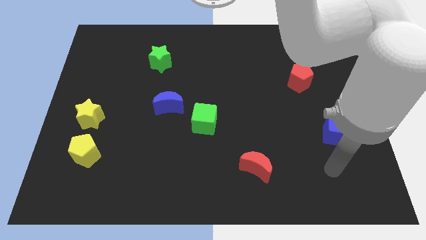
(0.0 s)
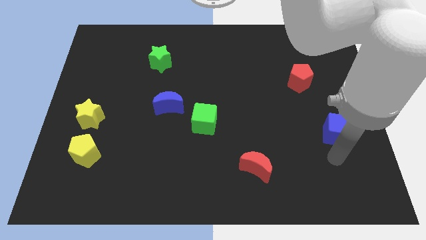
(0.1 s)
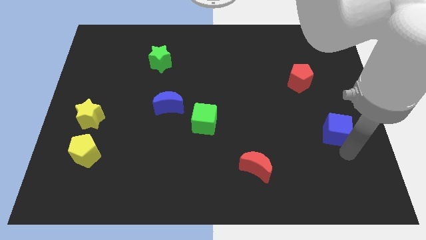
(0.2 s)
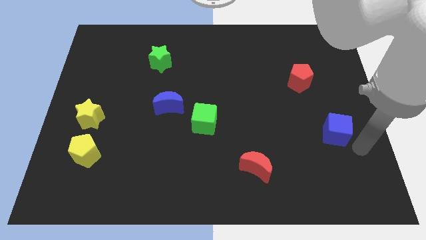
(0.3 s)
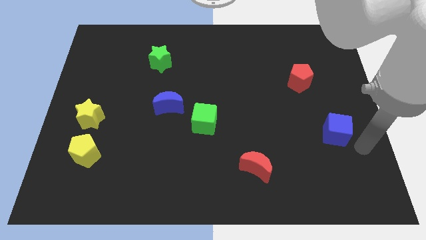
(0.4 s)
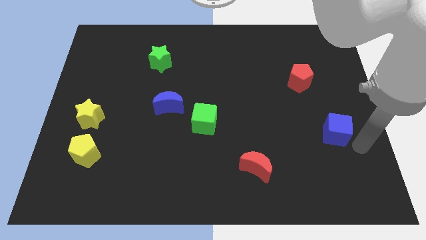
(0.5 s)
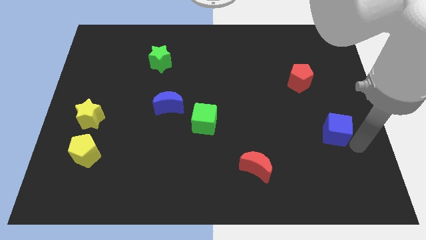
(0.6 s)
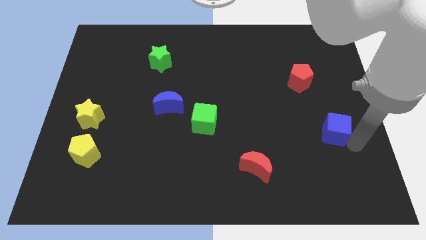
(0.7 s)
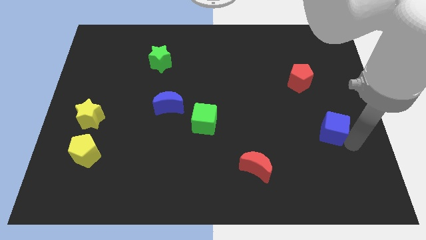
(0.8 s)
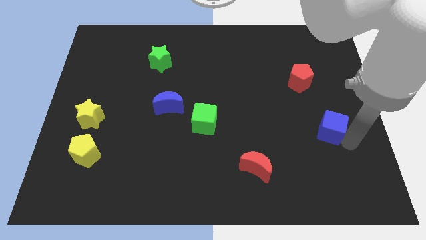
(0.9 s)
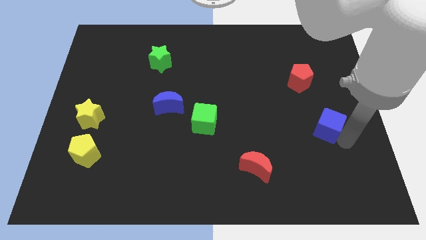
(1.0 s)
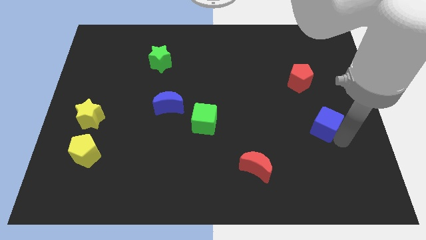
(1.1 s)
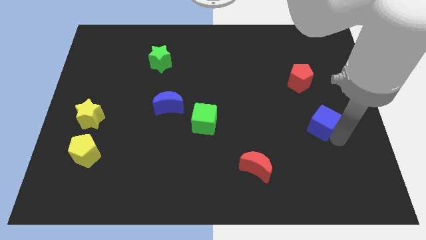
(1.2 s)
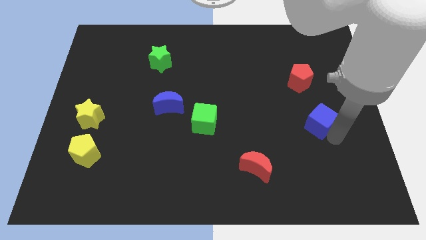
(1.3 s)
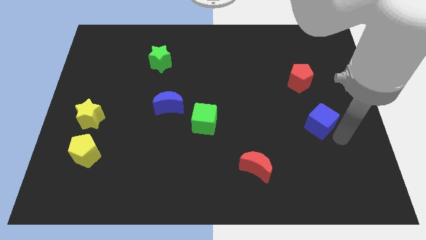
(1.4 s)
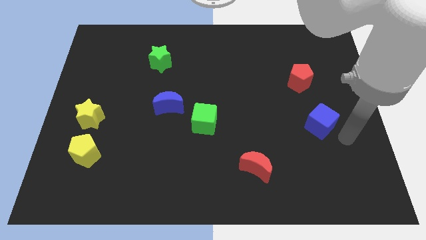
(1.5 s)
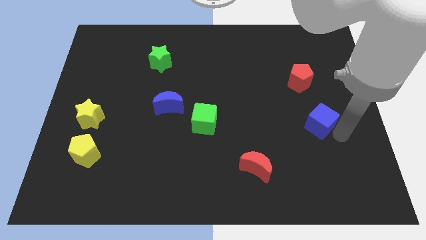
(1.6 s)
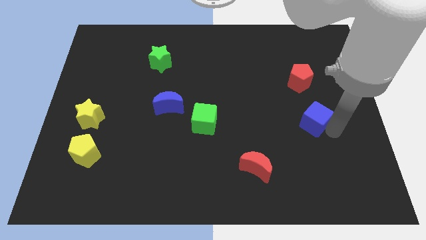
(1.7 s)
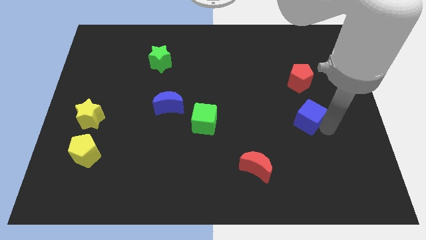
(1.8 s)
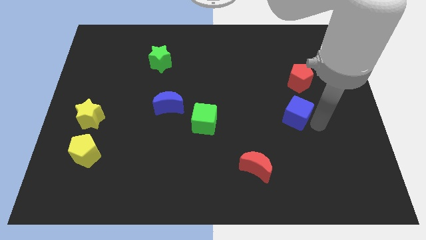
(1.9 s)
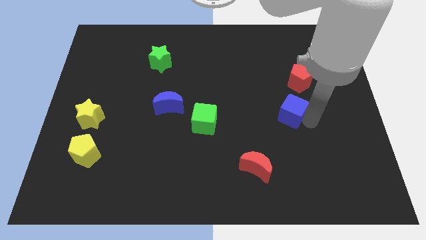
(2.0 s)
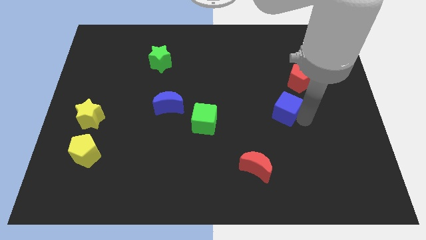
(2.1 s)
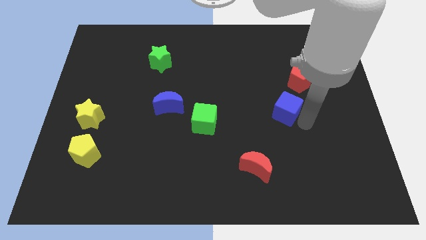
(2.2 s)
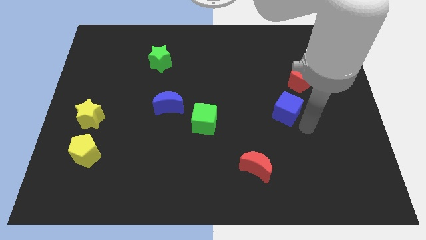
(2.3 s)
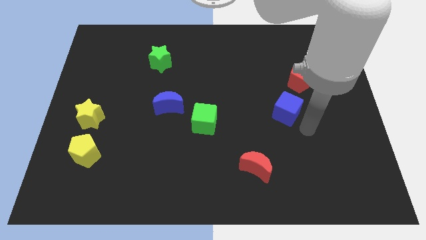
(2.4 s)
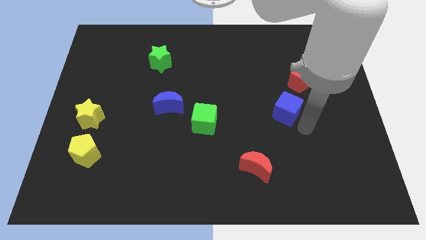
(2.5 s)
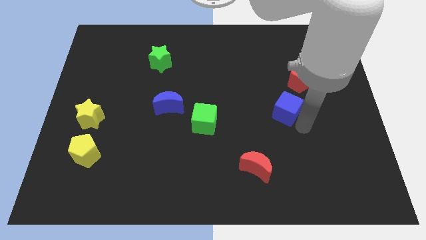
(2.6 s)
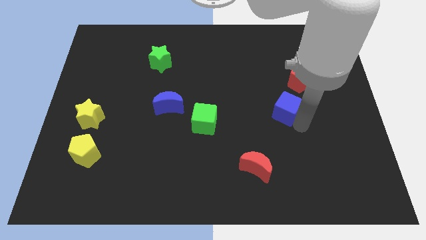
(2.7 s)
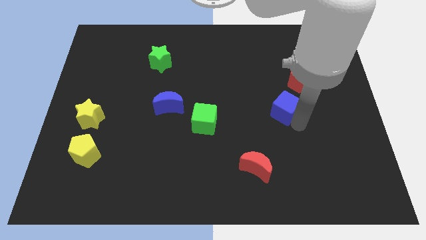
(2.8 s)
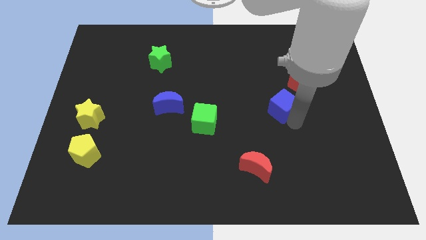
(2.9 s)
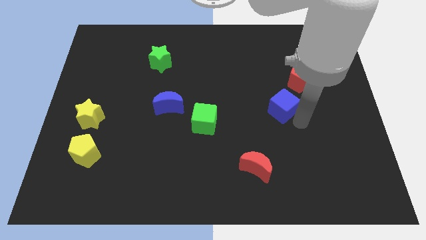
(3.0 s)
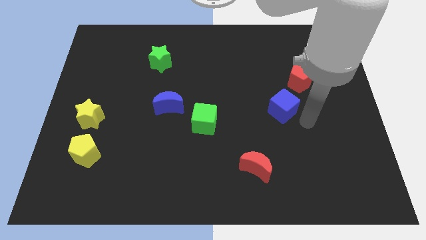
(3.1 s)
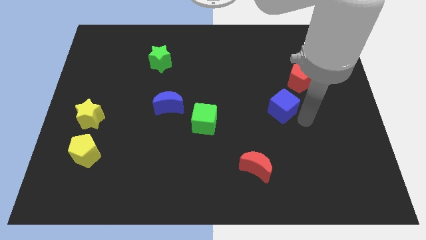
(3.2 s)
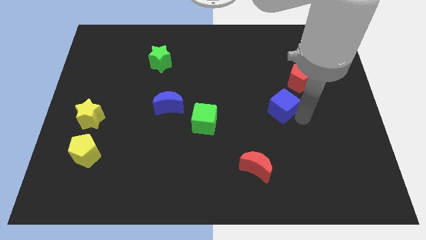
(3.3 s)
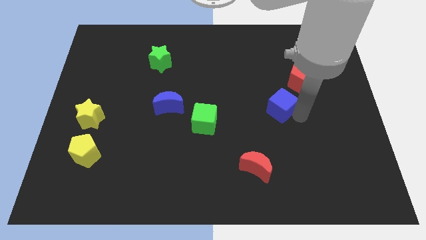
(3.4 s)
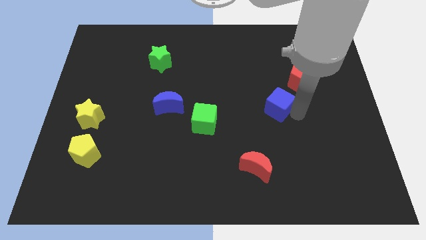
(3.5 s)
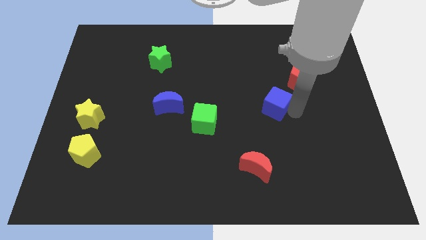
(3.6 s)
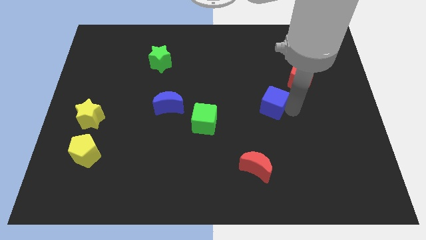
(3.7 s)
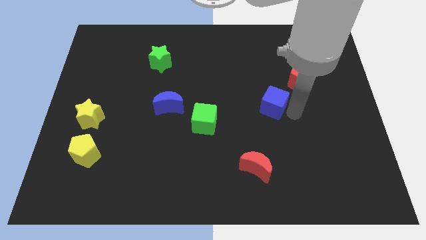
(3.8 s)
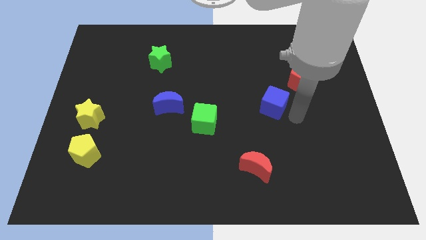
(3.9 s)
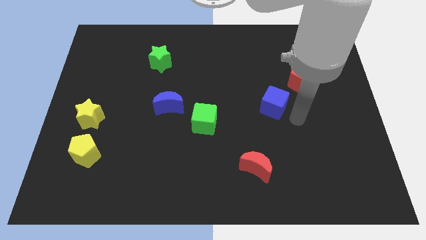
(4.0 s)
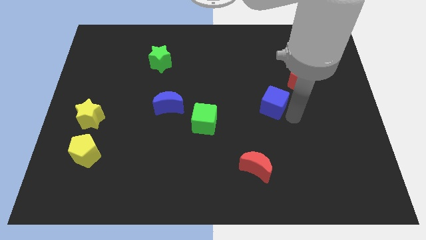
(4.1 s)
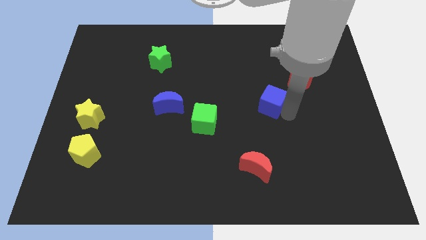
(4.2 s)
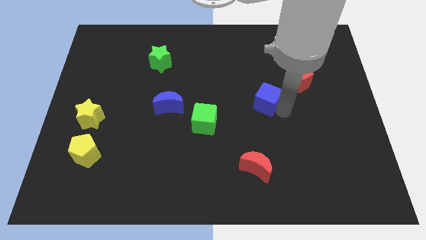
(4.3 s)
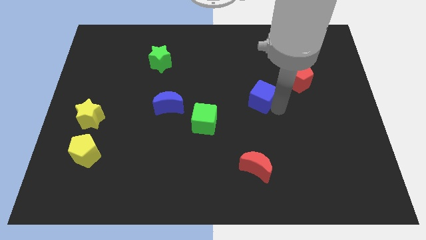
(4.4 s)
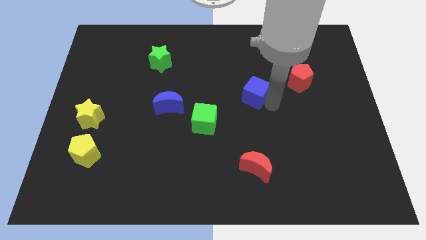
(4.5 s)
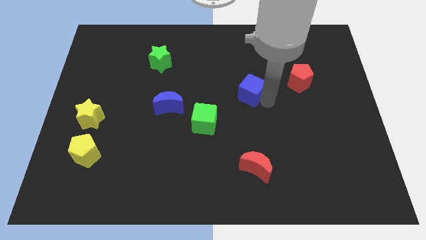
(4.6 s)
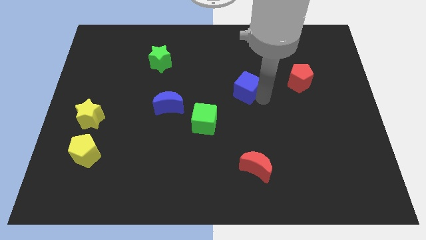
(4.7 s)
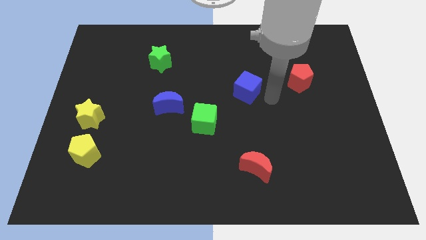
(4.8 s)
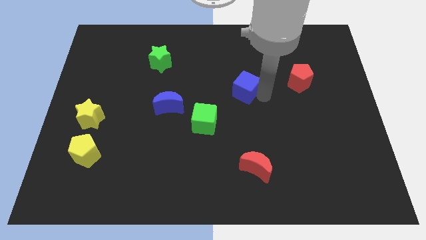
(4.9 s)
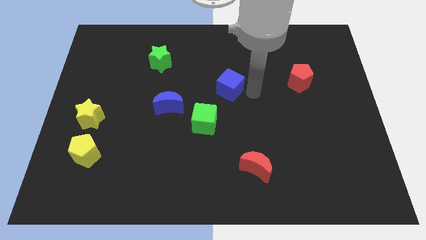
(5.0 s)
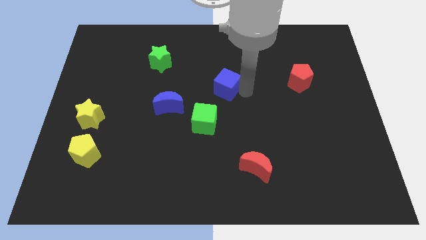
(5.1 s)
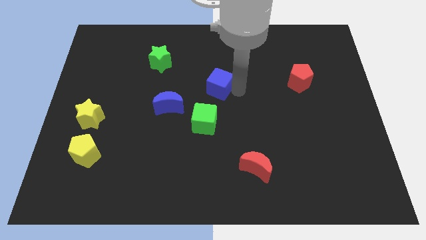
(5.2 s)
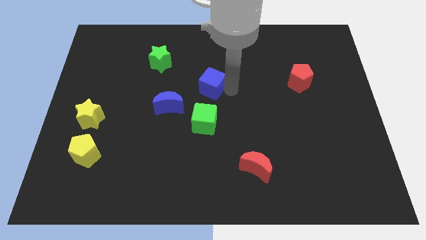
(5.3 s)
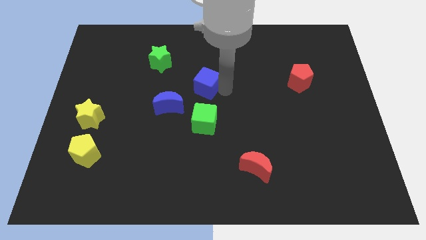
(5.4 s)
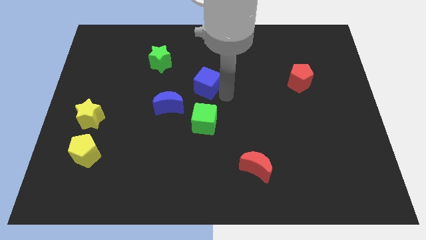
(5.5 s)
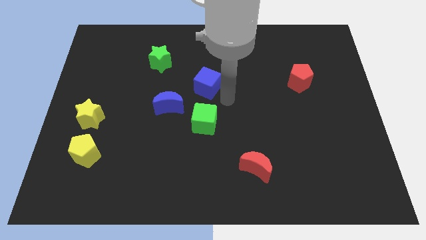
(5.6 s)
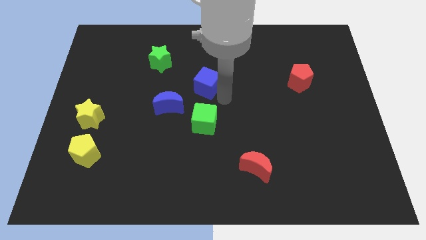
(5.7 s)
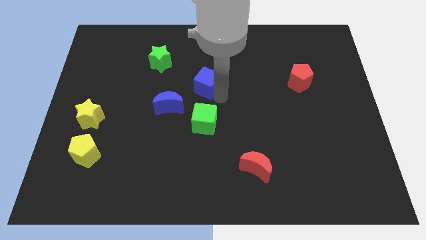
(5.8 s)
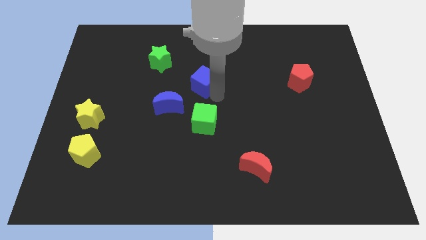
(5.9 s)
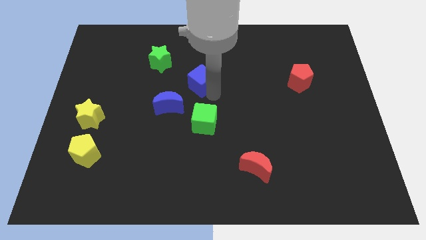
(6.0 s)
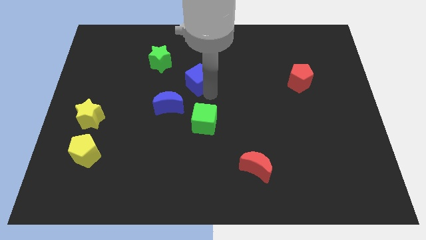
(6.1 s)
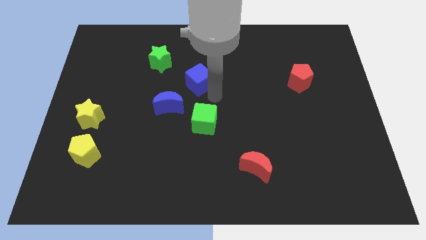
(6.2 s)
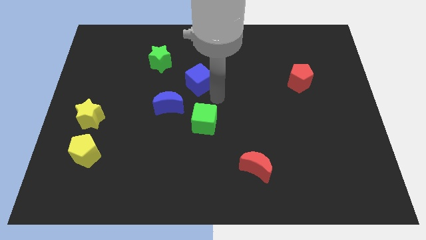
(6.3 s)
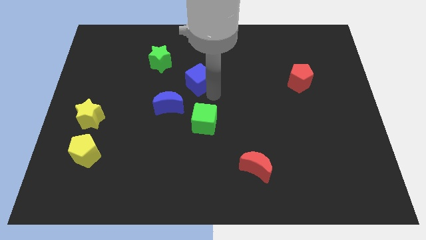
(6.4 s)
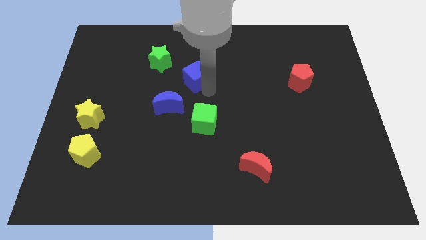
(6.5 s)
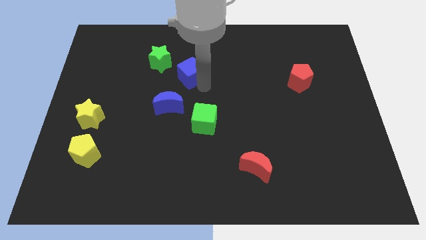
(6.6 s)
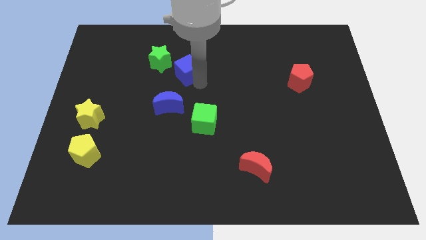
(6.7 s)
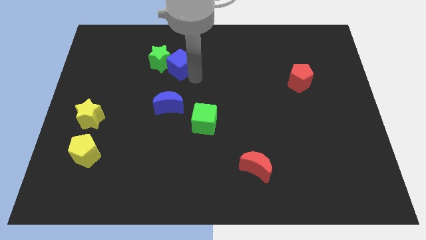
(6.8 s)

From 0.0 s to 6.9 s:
slide the blue cube towards the green star

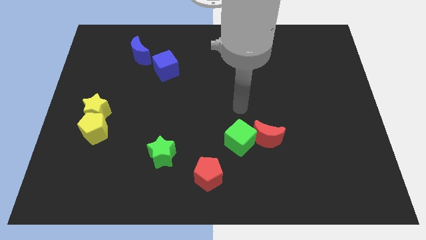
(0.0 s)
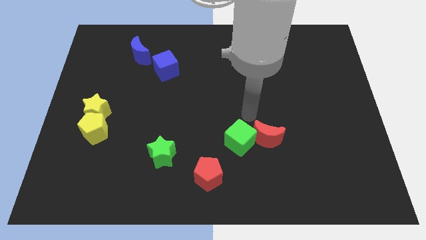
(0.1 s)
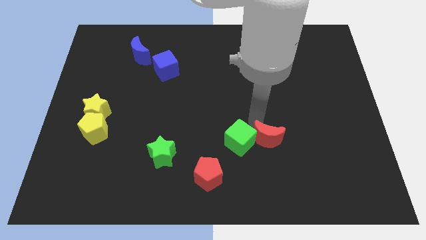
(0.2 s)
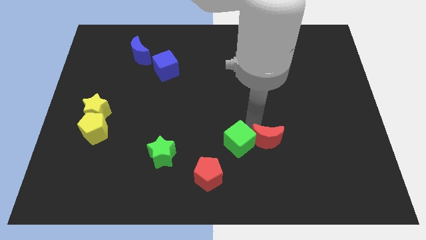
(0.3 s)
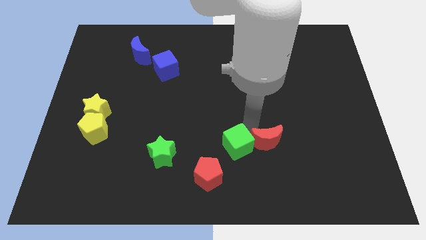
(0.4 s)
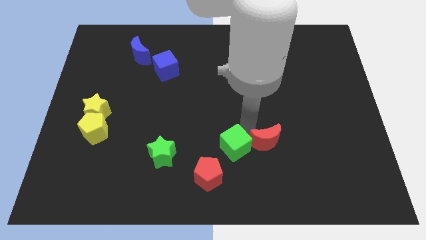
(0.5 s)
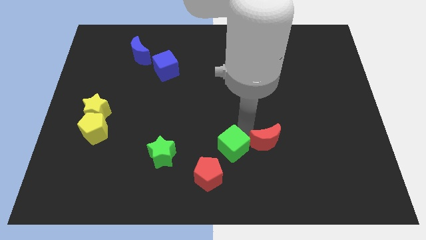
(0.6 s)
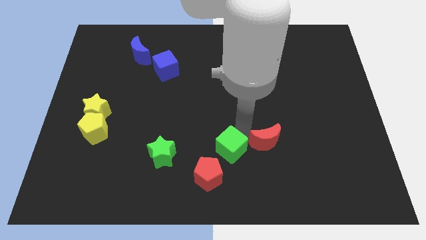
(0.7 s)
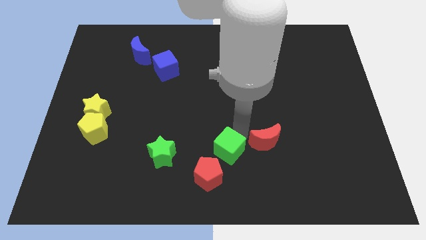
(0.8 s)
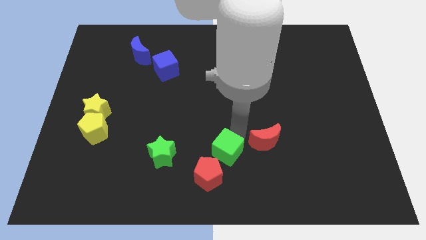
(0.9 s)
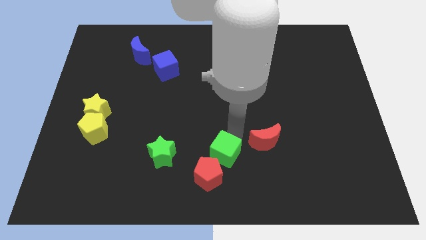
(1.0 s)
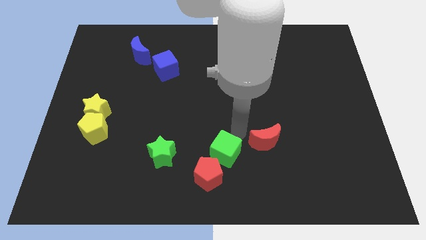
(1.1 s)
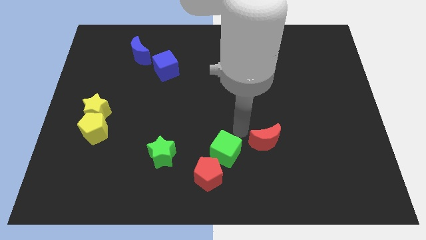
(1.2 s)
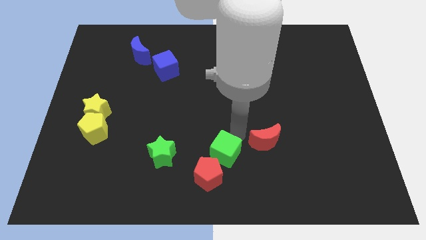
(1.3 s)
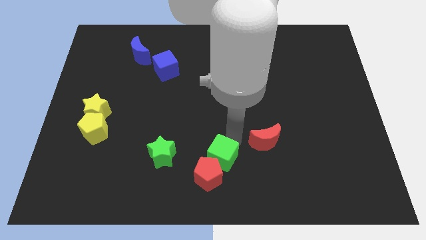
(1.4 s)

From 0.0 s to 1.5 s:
slide the green cube next to the red pentagon
